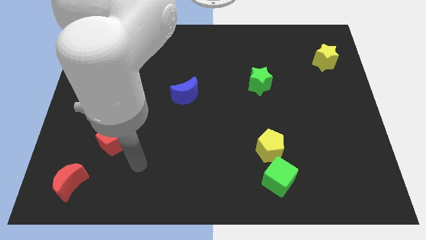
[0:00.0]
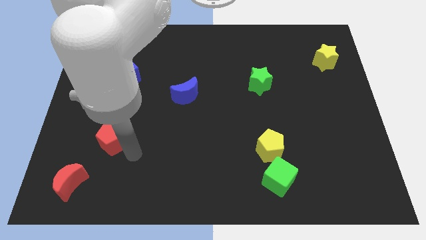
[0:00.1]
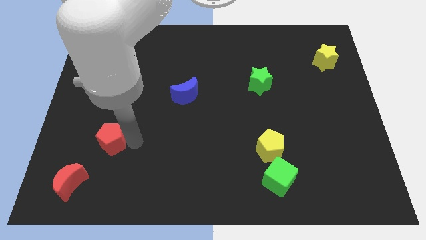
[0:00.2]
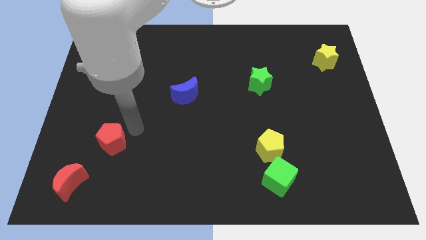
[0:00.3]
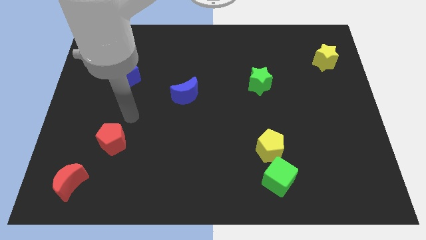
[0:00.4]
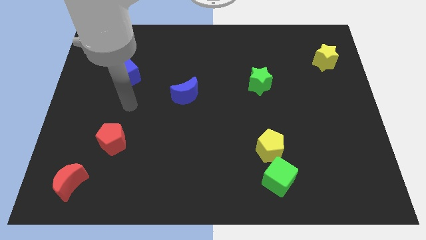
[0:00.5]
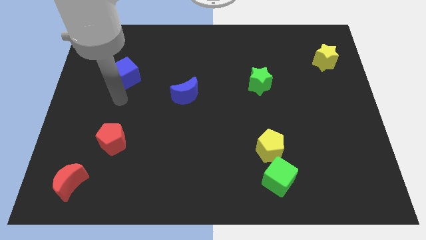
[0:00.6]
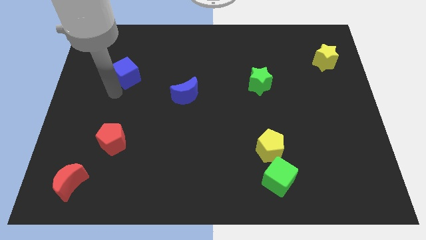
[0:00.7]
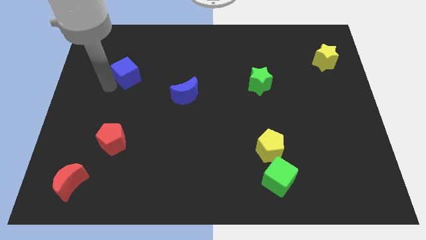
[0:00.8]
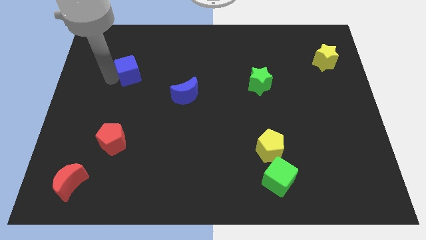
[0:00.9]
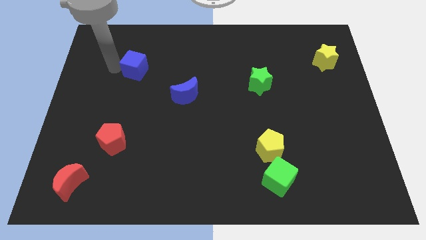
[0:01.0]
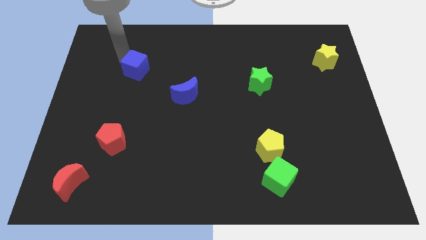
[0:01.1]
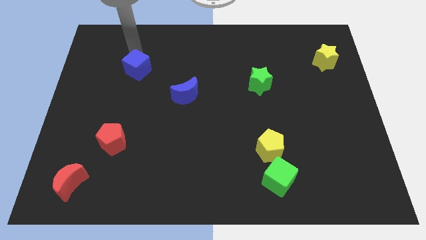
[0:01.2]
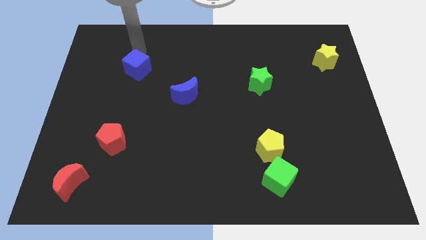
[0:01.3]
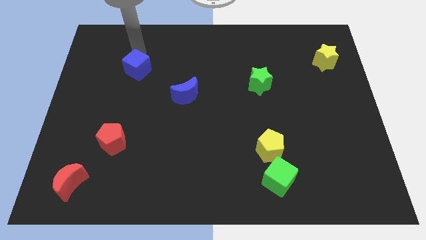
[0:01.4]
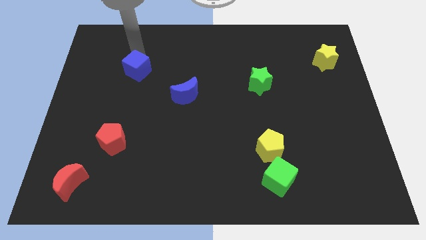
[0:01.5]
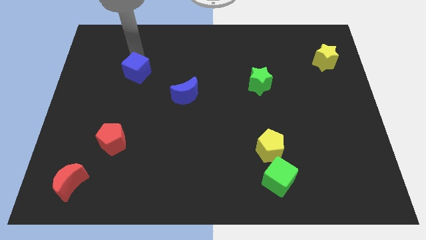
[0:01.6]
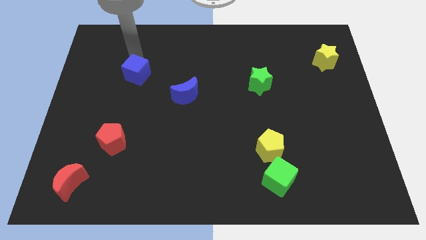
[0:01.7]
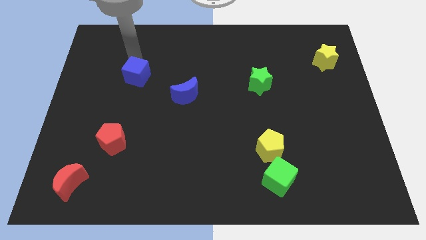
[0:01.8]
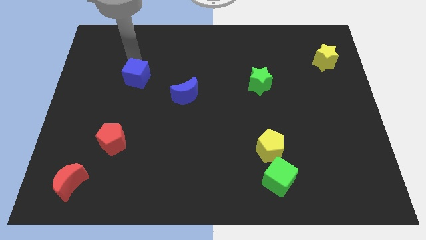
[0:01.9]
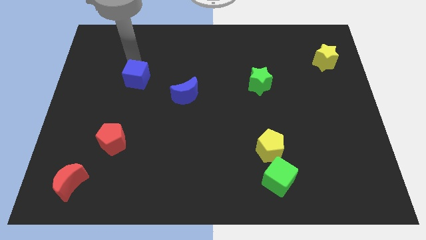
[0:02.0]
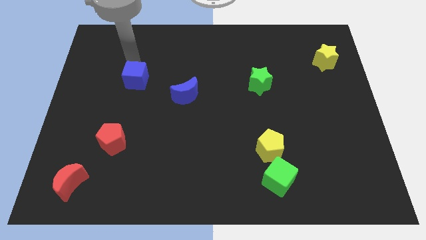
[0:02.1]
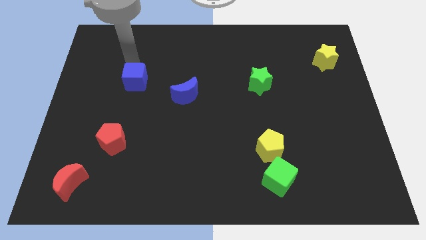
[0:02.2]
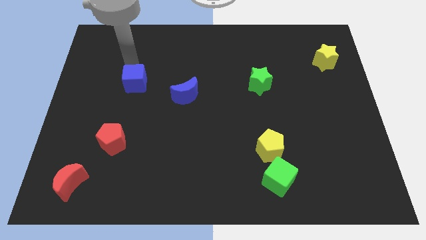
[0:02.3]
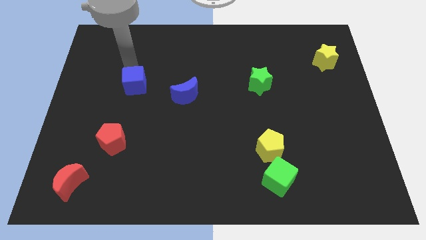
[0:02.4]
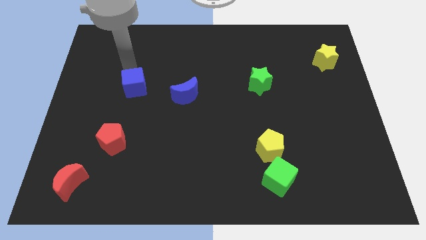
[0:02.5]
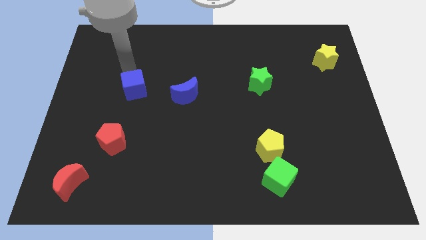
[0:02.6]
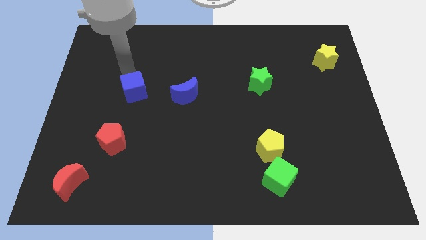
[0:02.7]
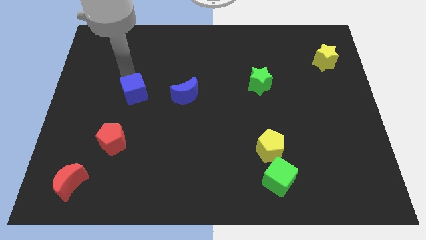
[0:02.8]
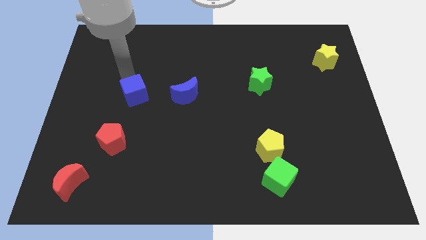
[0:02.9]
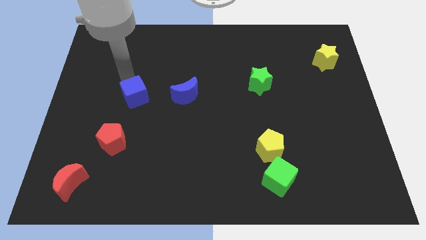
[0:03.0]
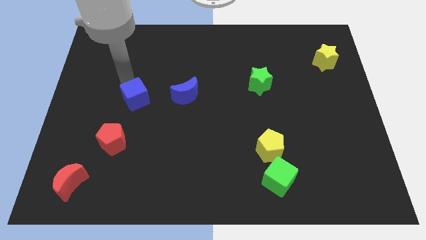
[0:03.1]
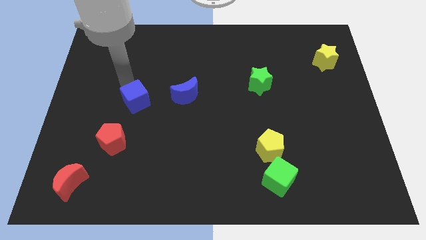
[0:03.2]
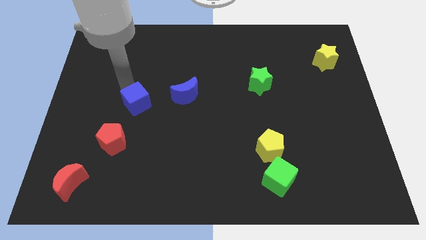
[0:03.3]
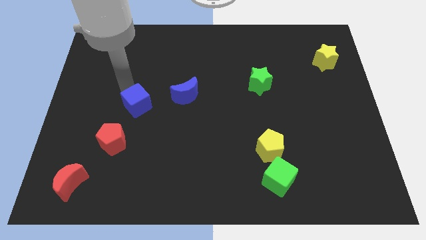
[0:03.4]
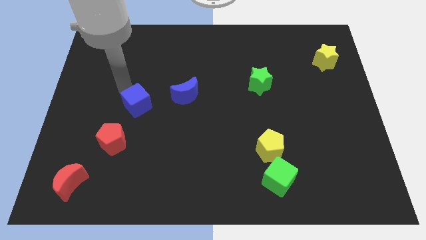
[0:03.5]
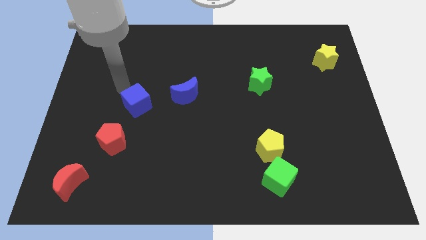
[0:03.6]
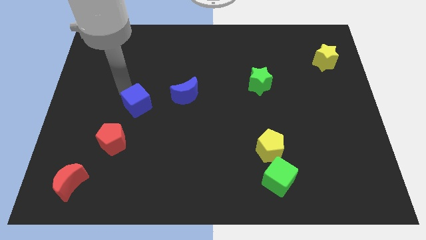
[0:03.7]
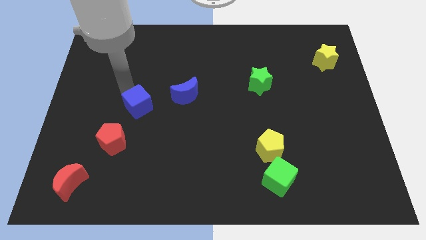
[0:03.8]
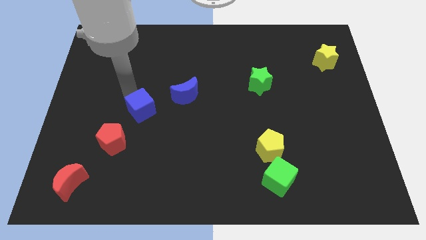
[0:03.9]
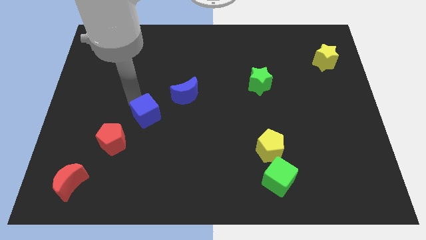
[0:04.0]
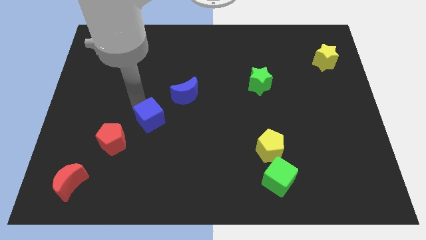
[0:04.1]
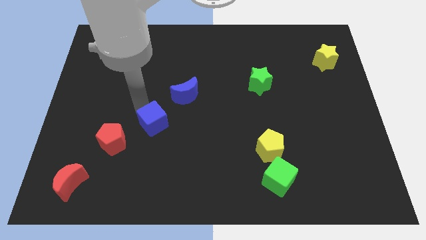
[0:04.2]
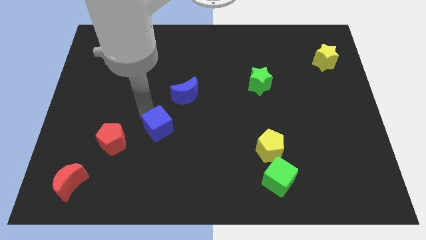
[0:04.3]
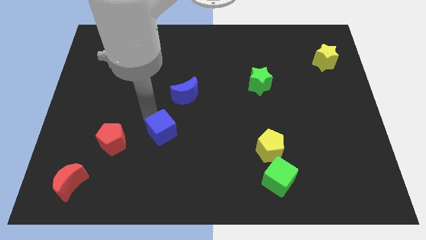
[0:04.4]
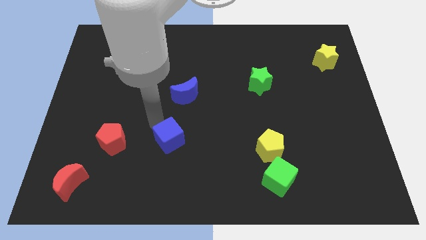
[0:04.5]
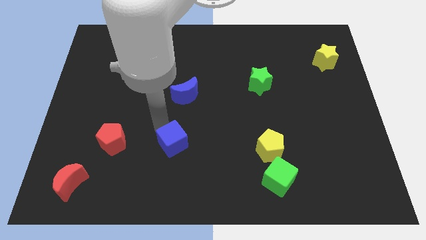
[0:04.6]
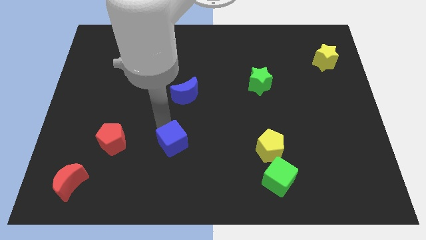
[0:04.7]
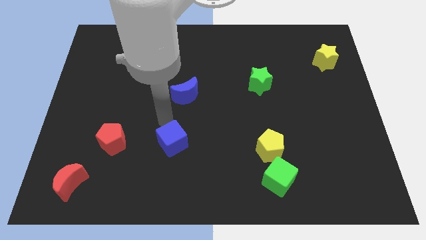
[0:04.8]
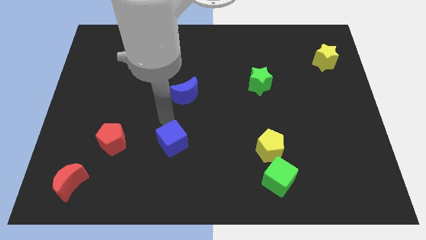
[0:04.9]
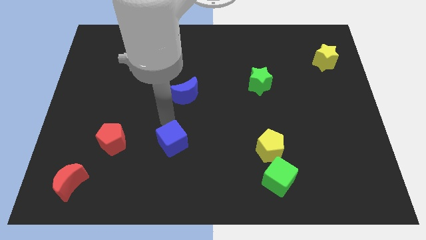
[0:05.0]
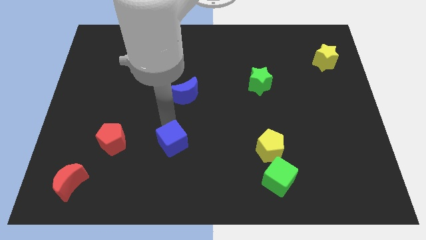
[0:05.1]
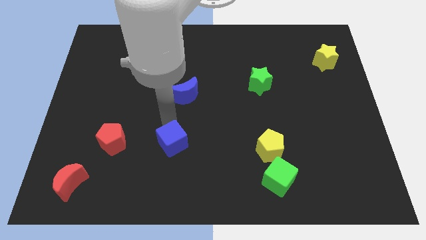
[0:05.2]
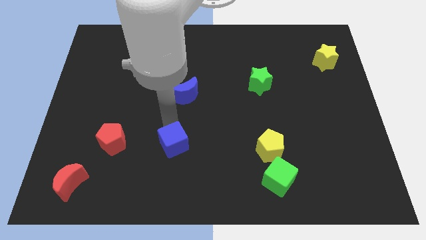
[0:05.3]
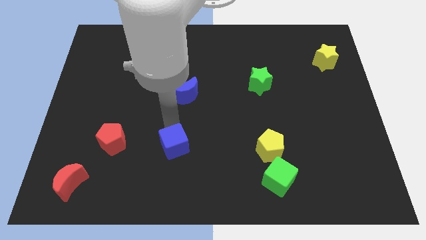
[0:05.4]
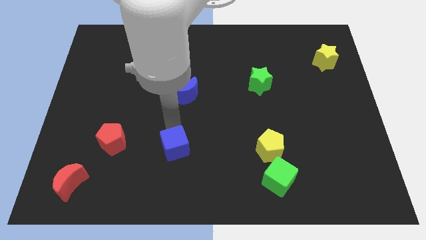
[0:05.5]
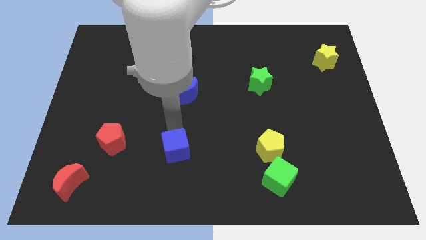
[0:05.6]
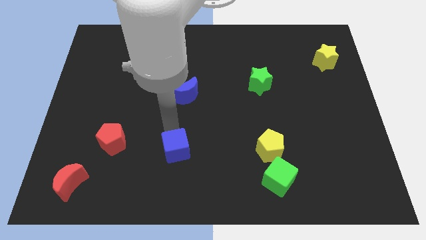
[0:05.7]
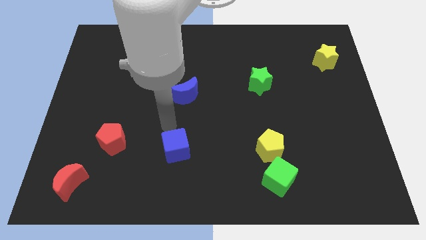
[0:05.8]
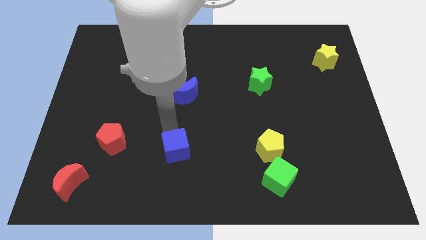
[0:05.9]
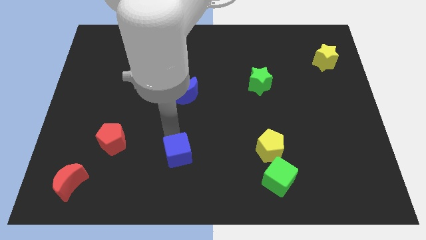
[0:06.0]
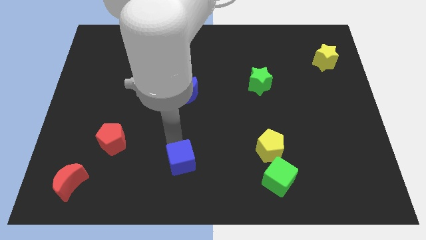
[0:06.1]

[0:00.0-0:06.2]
slide the blue cube to the bottom
